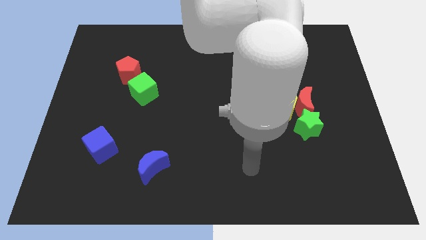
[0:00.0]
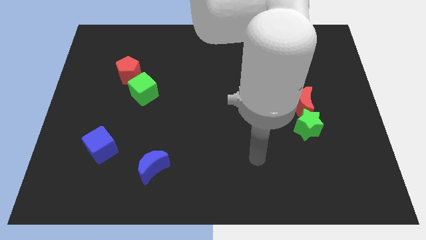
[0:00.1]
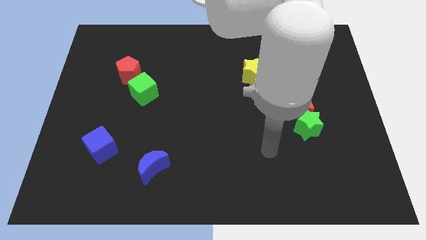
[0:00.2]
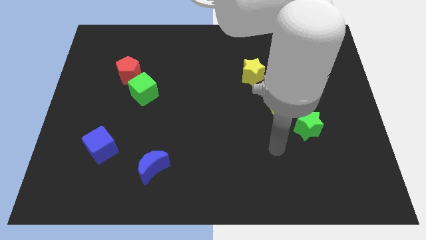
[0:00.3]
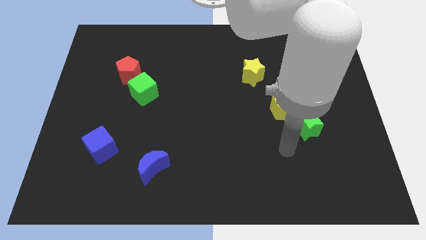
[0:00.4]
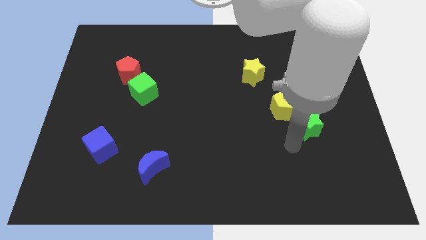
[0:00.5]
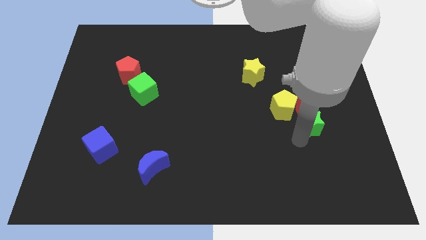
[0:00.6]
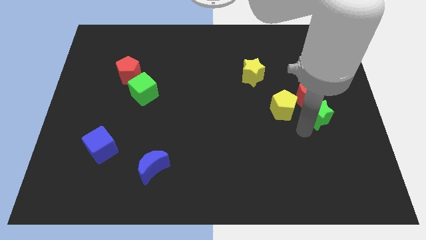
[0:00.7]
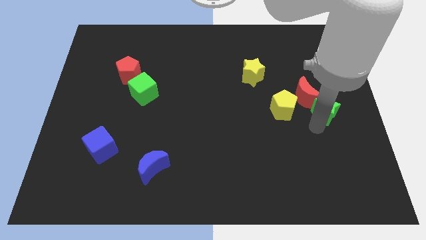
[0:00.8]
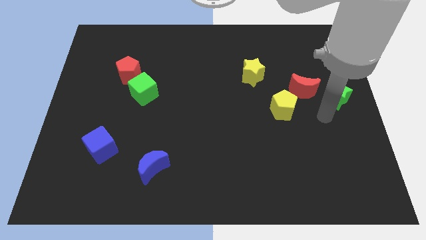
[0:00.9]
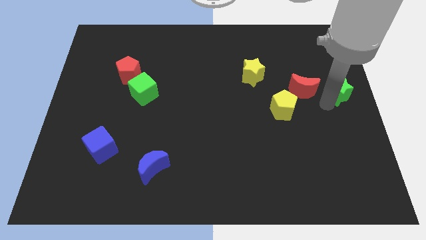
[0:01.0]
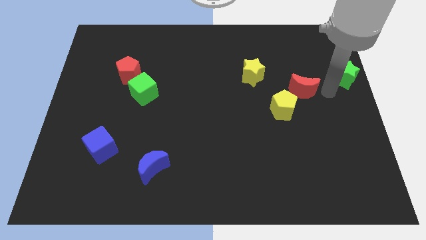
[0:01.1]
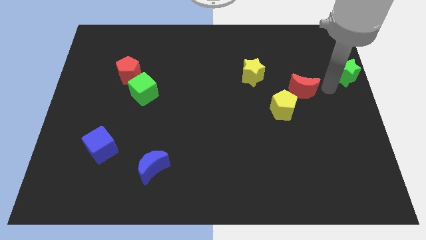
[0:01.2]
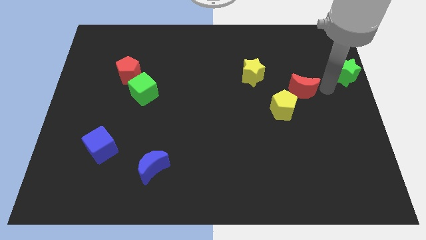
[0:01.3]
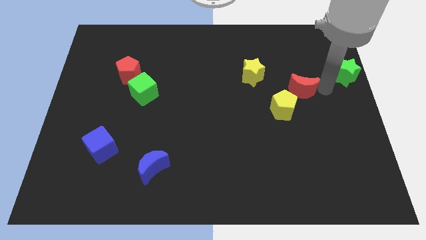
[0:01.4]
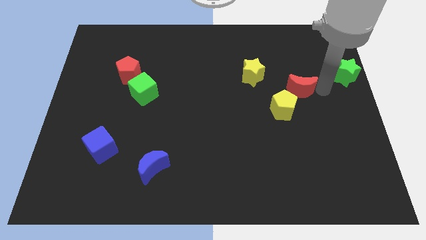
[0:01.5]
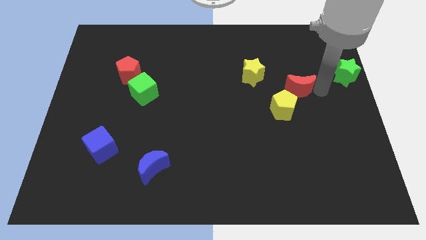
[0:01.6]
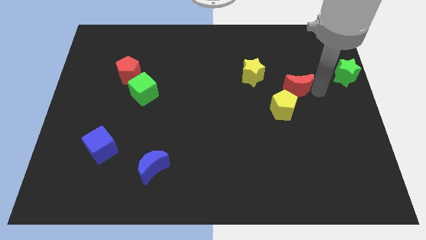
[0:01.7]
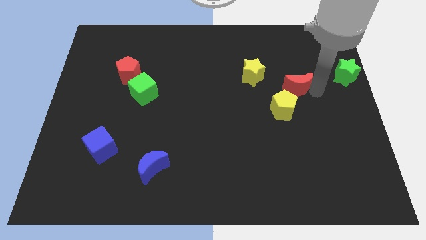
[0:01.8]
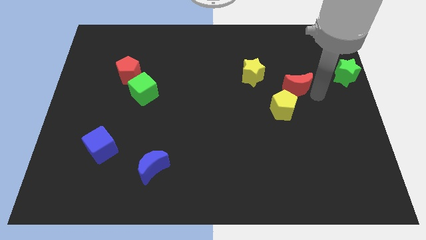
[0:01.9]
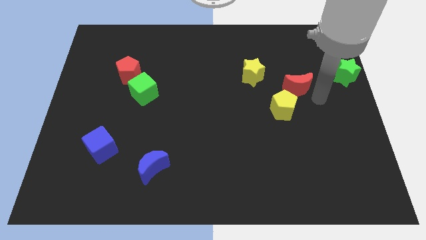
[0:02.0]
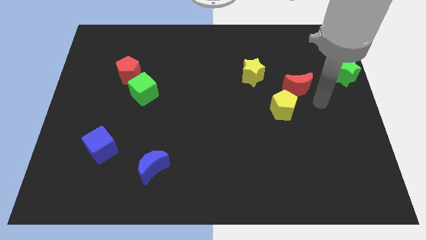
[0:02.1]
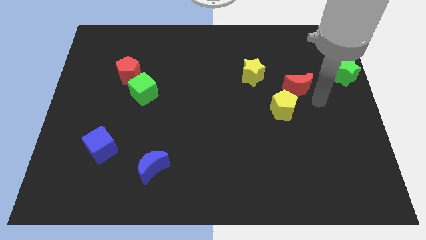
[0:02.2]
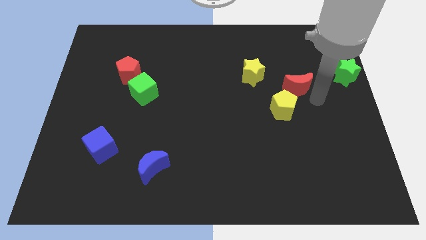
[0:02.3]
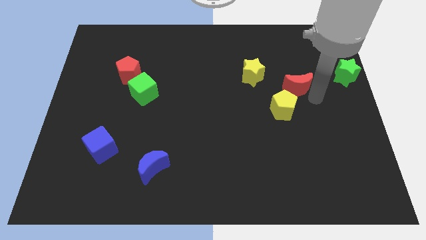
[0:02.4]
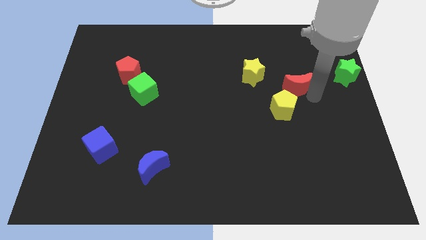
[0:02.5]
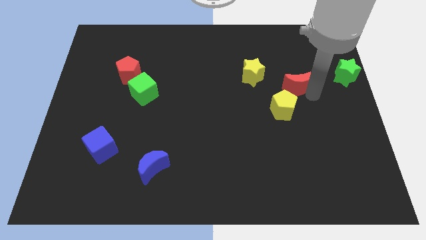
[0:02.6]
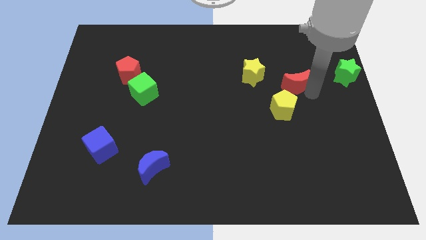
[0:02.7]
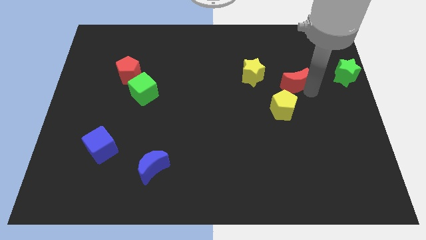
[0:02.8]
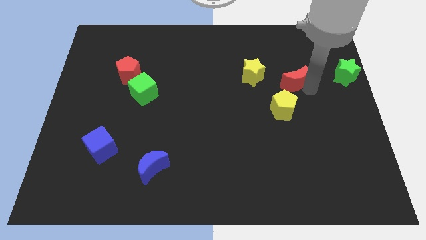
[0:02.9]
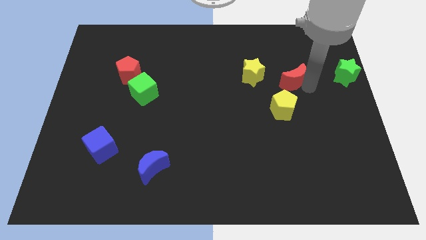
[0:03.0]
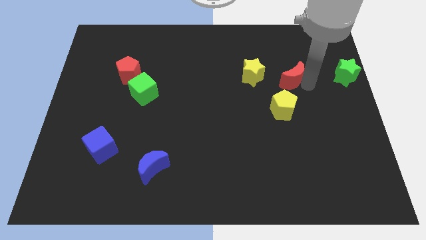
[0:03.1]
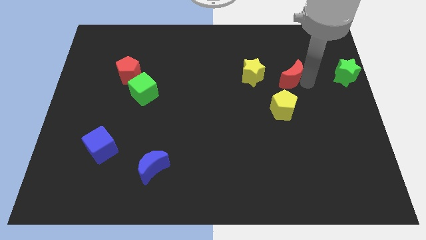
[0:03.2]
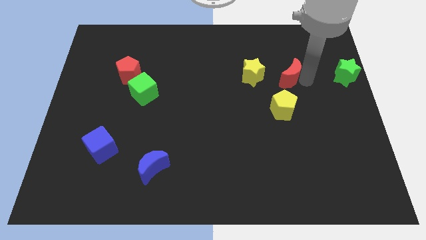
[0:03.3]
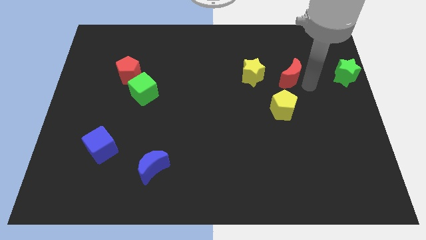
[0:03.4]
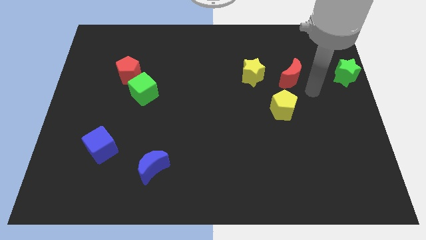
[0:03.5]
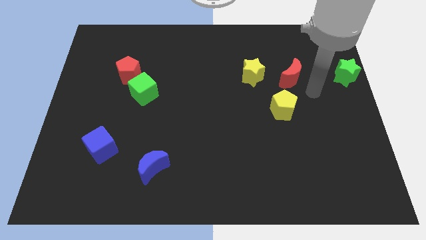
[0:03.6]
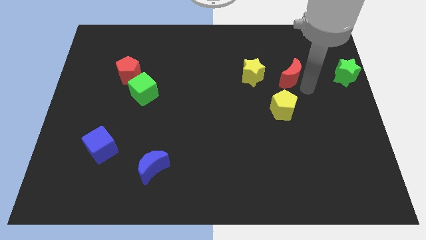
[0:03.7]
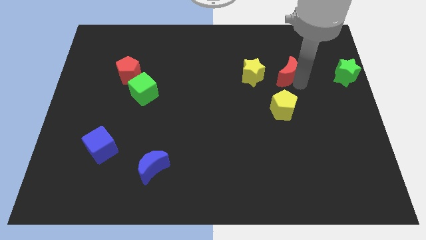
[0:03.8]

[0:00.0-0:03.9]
slightly push the red moon upwards and to the left

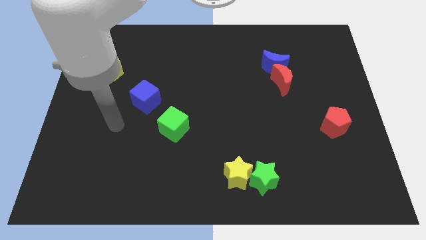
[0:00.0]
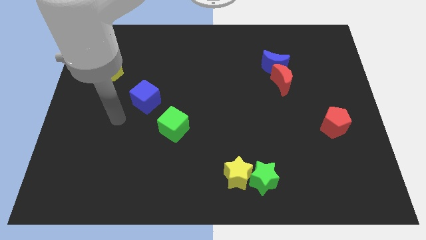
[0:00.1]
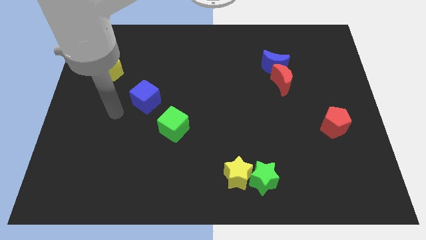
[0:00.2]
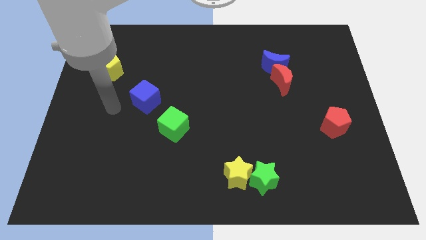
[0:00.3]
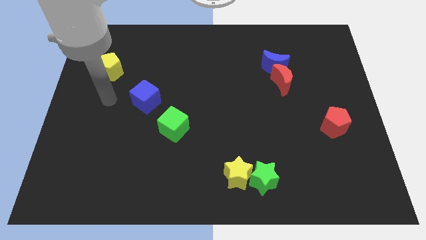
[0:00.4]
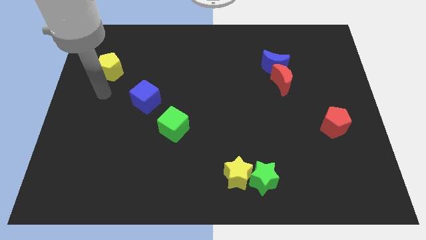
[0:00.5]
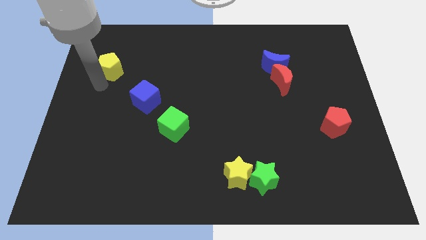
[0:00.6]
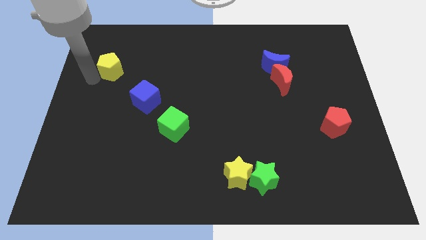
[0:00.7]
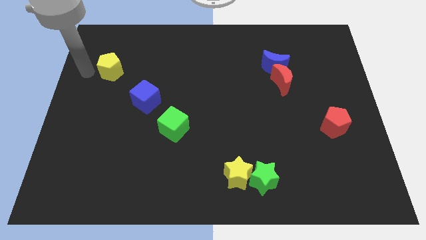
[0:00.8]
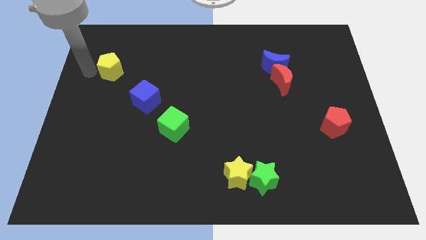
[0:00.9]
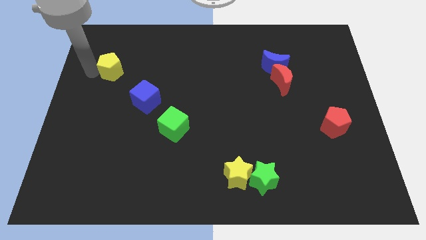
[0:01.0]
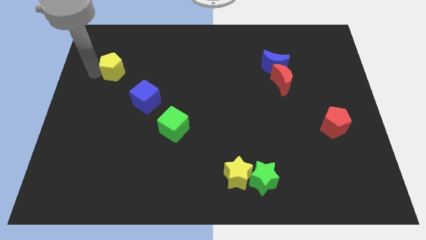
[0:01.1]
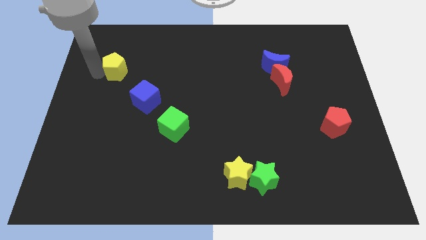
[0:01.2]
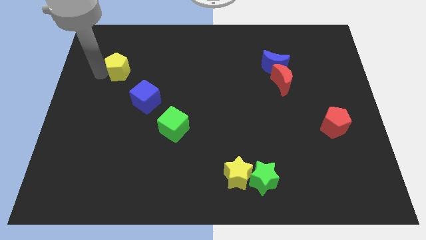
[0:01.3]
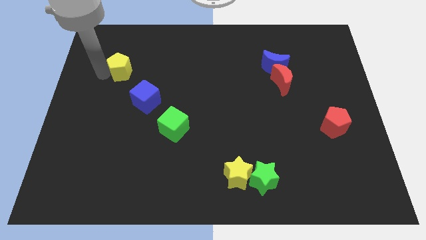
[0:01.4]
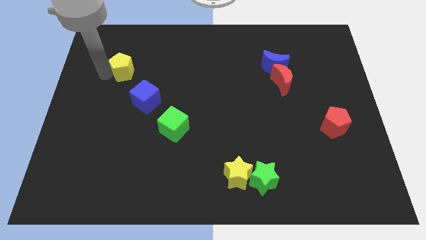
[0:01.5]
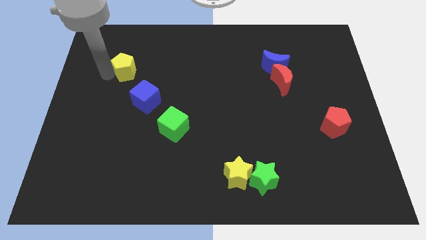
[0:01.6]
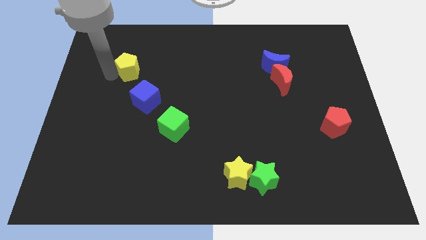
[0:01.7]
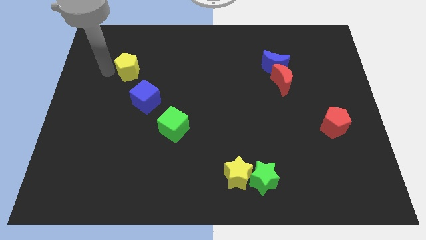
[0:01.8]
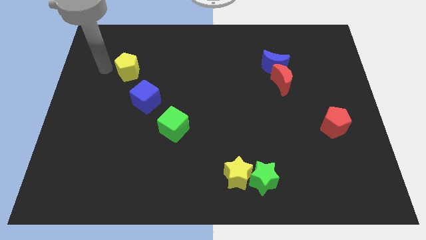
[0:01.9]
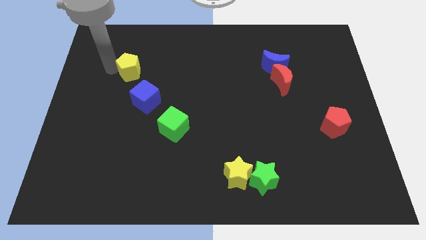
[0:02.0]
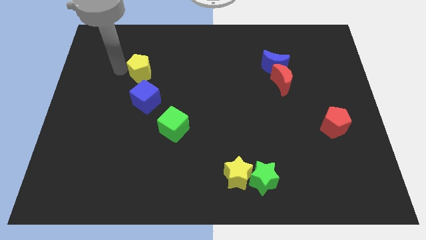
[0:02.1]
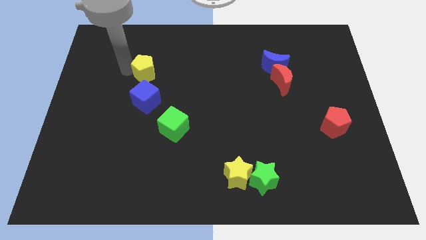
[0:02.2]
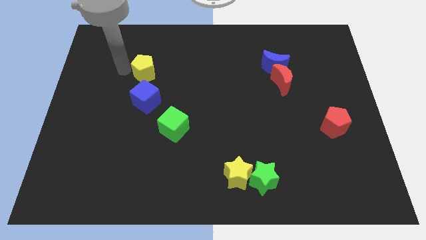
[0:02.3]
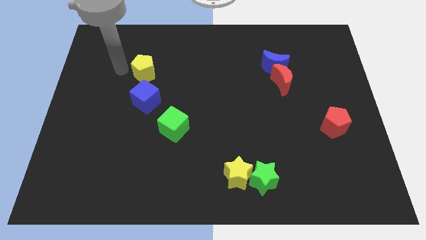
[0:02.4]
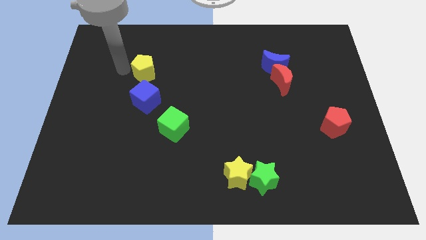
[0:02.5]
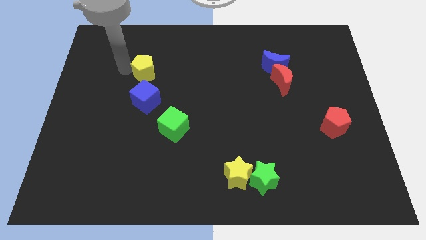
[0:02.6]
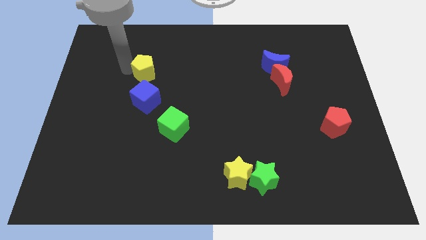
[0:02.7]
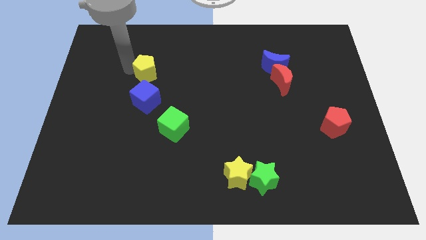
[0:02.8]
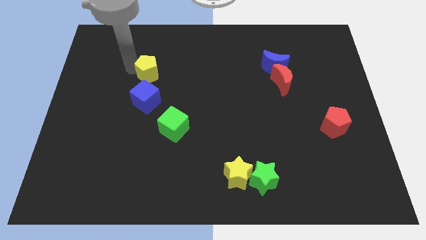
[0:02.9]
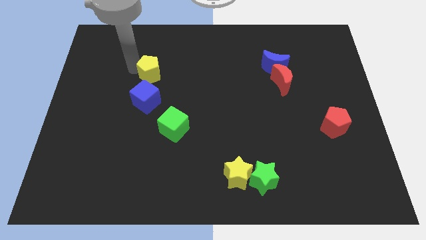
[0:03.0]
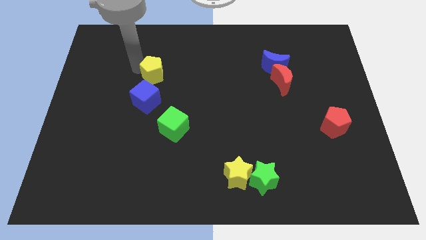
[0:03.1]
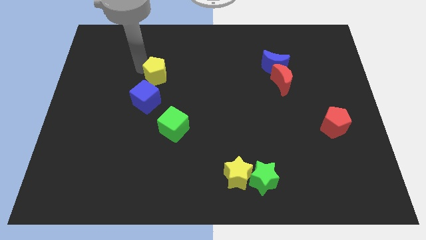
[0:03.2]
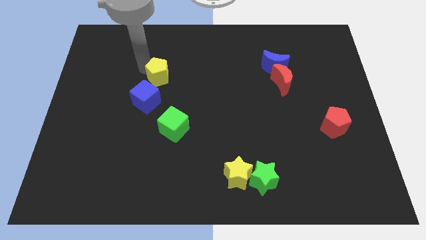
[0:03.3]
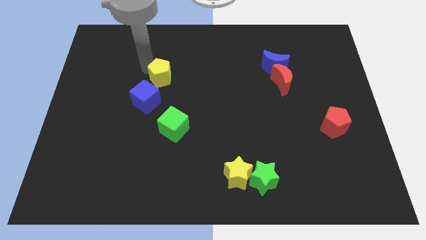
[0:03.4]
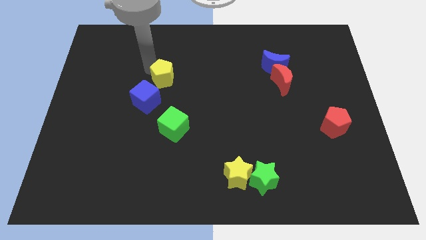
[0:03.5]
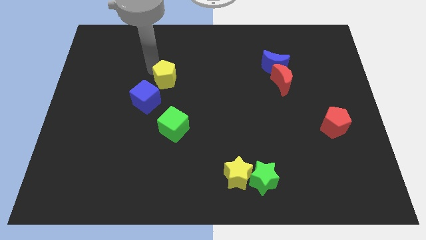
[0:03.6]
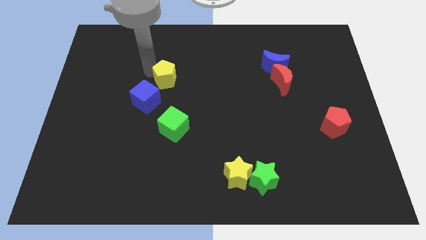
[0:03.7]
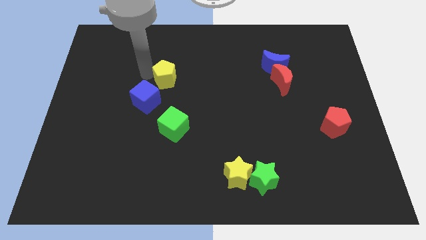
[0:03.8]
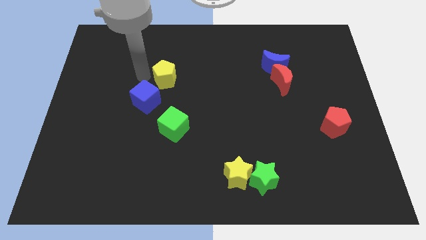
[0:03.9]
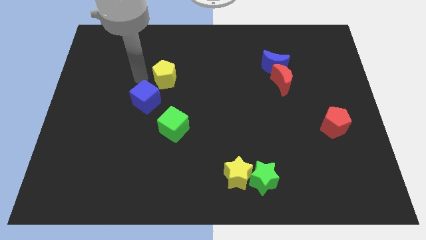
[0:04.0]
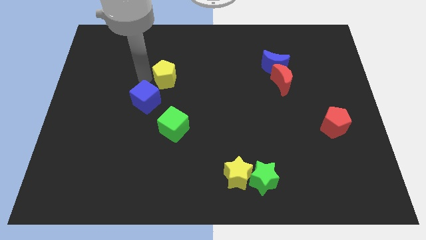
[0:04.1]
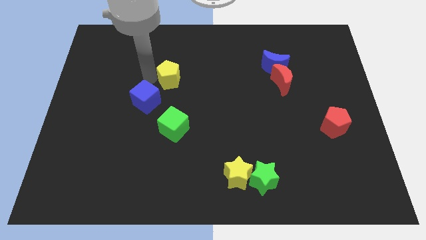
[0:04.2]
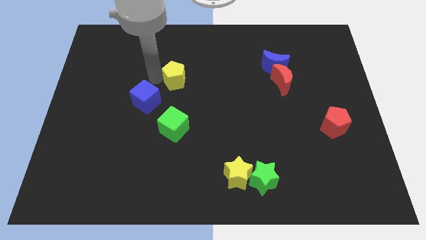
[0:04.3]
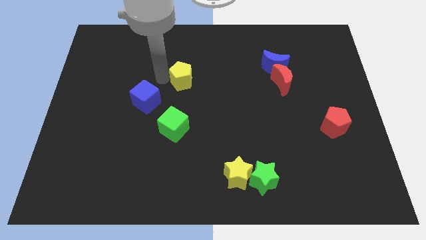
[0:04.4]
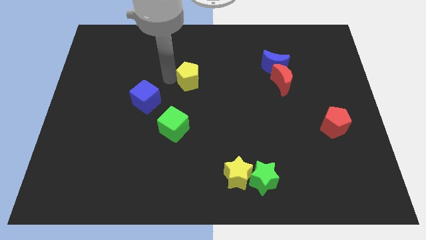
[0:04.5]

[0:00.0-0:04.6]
slide the yellow pentagon right
